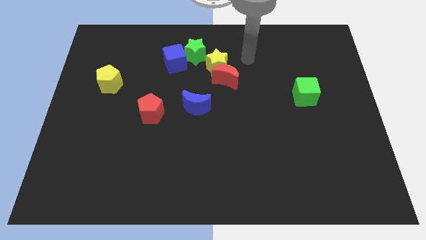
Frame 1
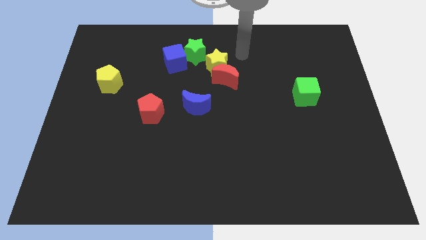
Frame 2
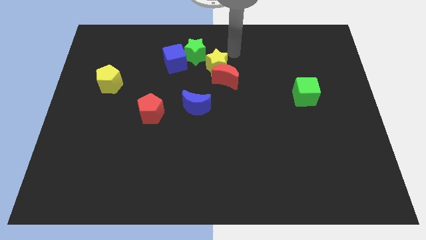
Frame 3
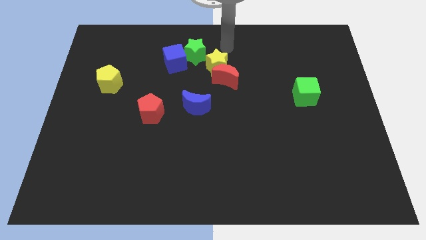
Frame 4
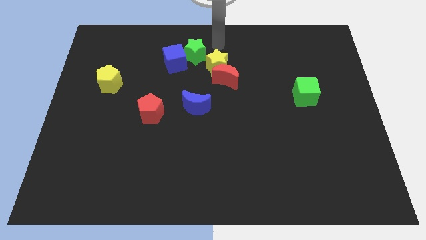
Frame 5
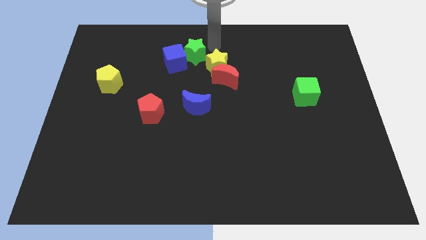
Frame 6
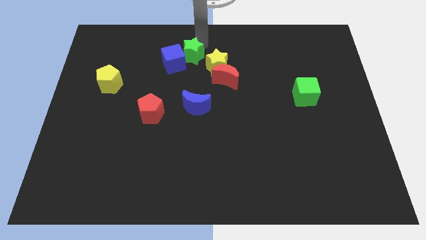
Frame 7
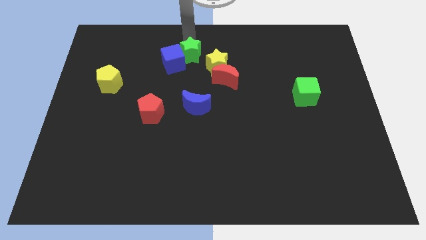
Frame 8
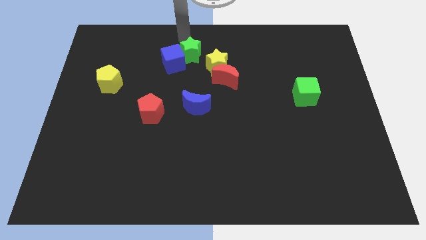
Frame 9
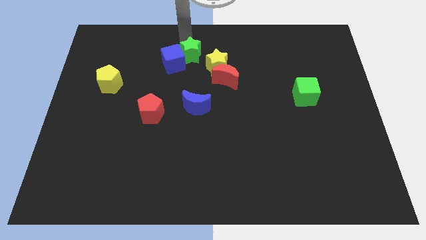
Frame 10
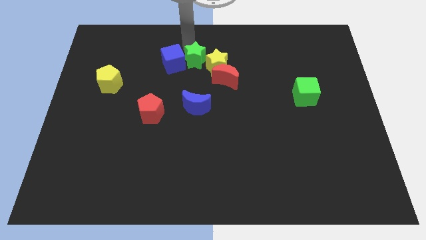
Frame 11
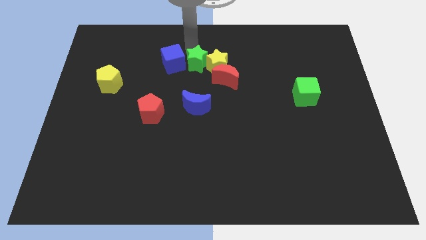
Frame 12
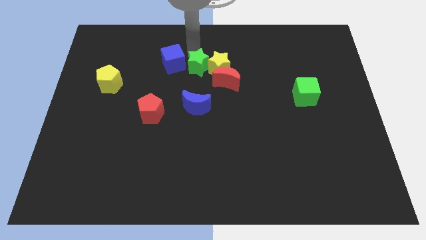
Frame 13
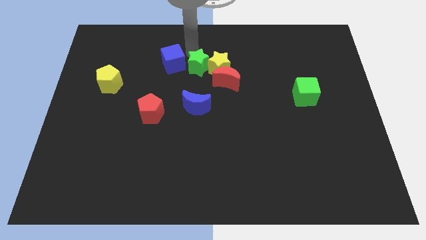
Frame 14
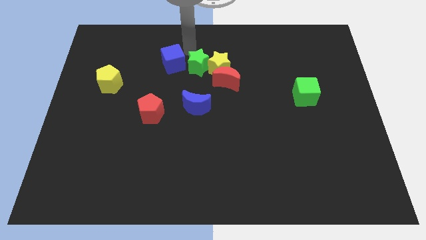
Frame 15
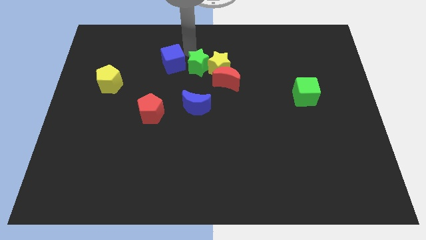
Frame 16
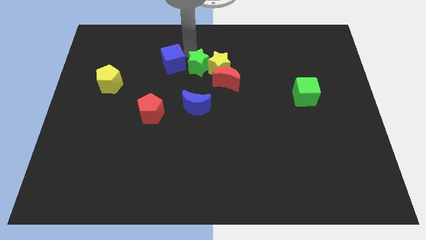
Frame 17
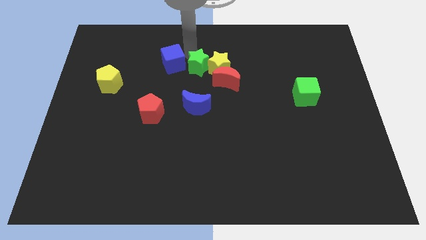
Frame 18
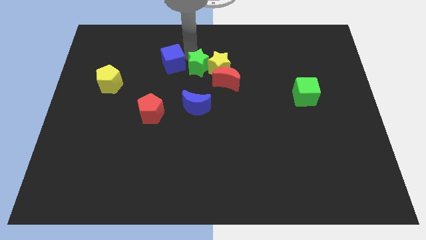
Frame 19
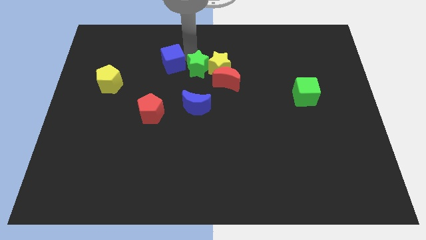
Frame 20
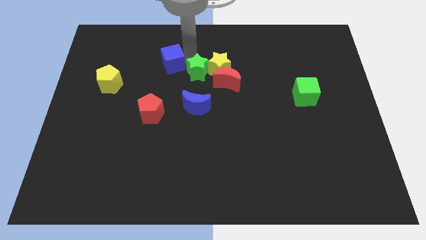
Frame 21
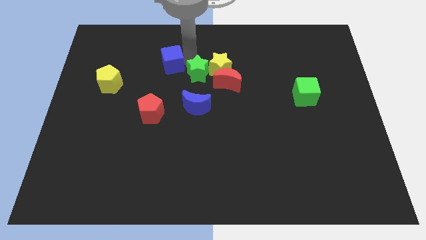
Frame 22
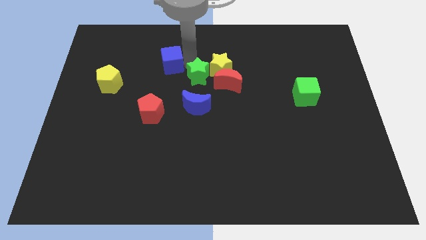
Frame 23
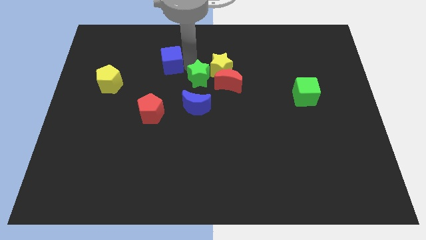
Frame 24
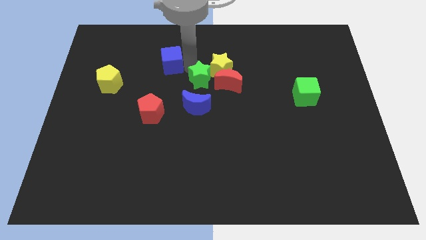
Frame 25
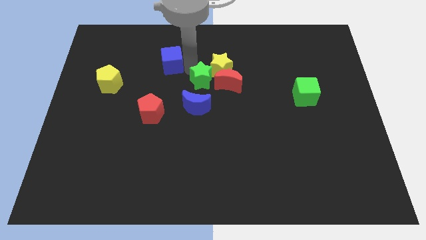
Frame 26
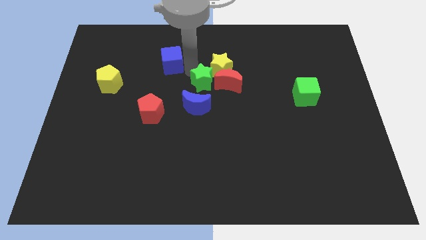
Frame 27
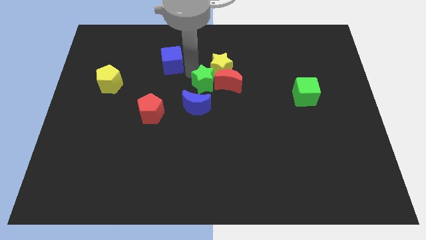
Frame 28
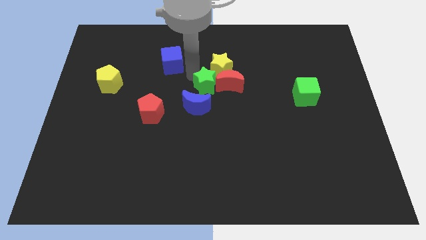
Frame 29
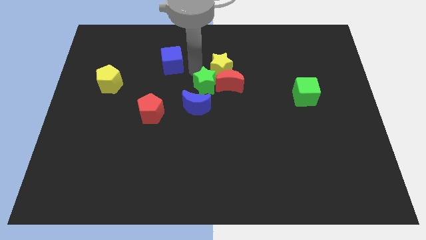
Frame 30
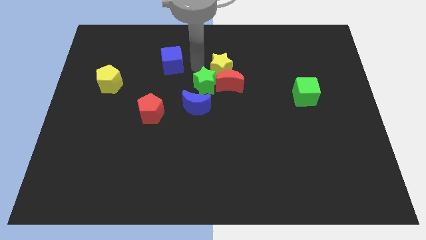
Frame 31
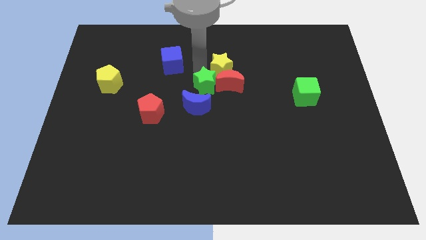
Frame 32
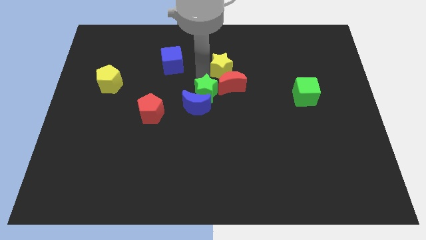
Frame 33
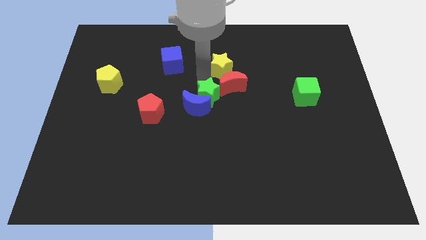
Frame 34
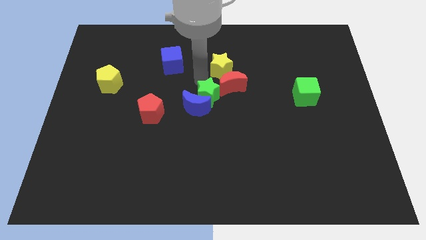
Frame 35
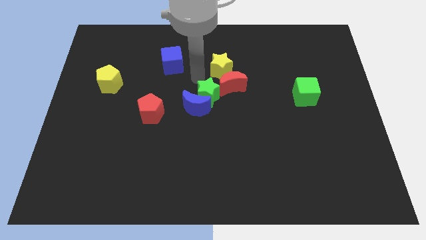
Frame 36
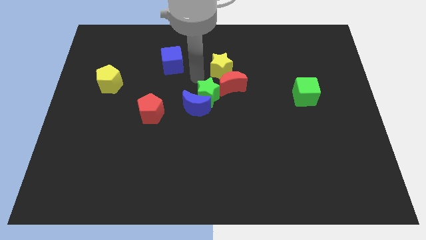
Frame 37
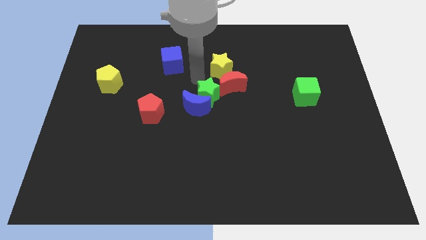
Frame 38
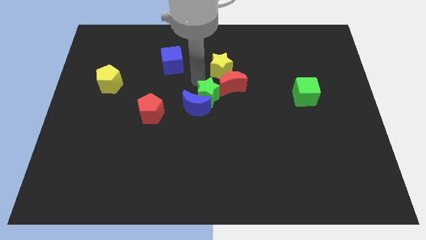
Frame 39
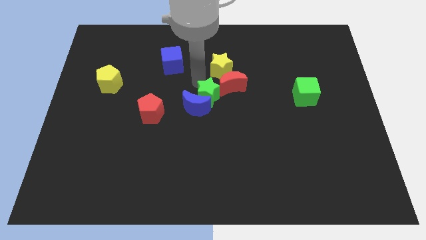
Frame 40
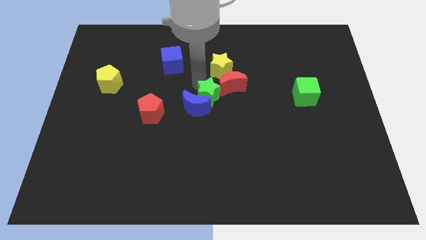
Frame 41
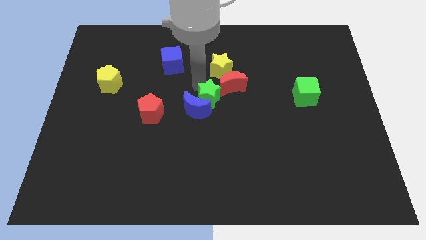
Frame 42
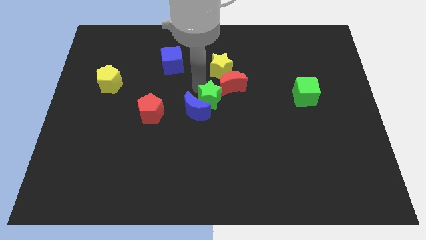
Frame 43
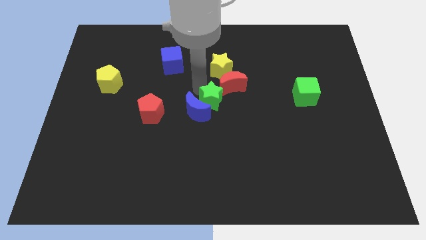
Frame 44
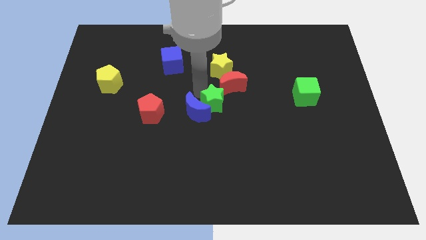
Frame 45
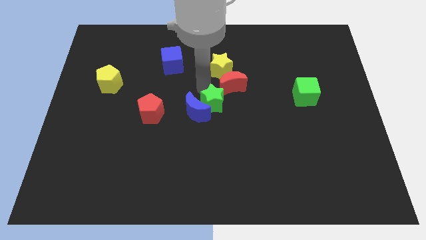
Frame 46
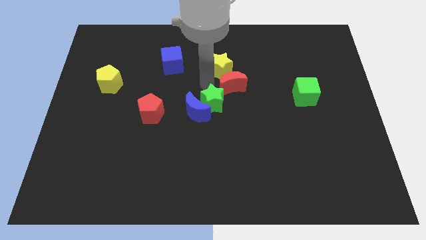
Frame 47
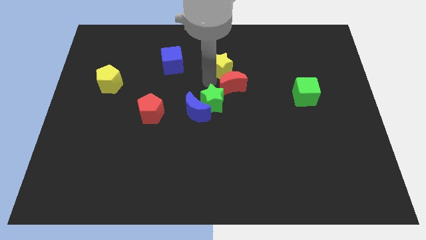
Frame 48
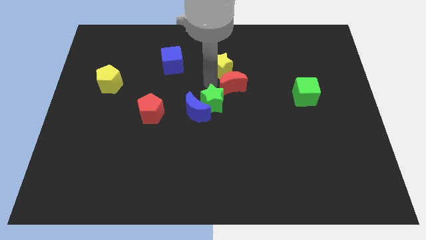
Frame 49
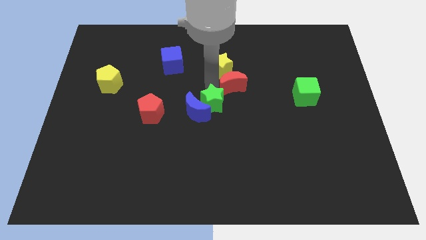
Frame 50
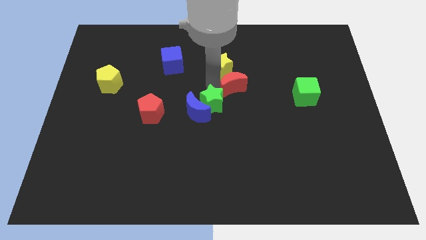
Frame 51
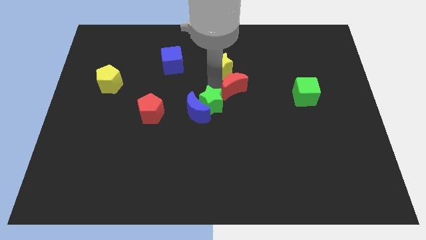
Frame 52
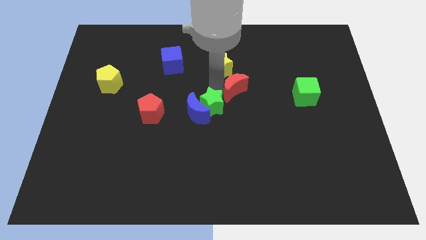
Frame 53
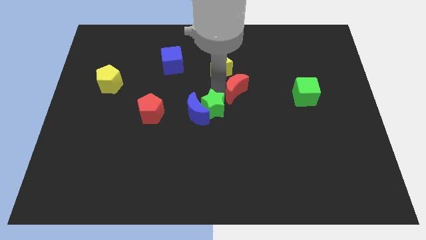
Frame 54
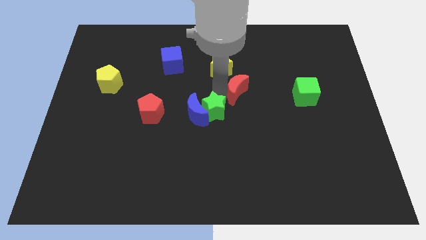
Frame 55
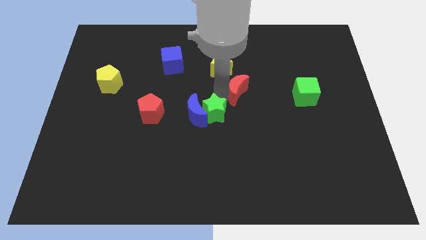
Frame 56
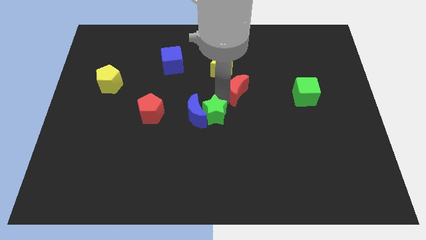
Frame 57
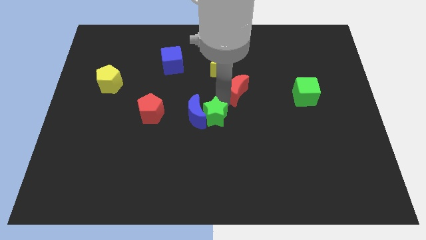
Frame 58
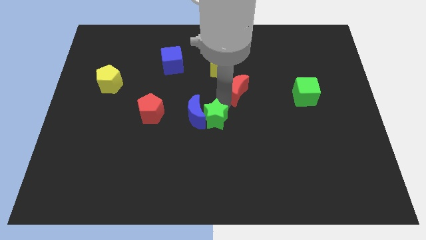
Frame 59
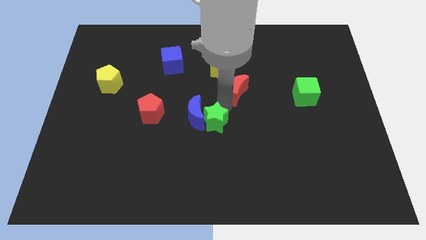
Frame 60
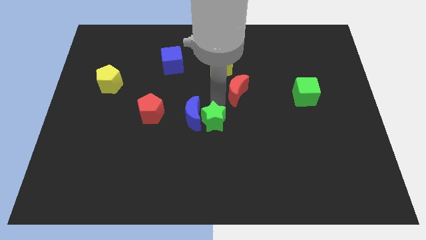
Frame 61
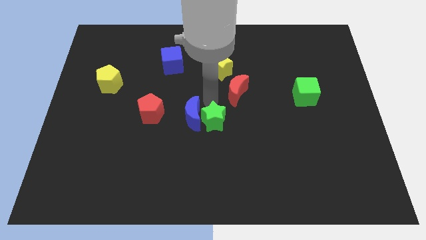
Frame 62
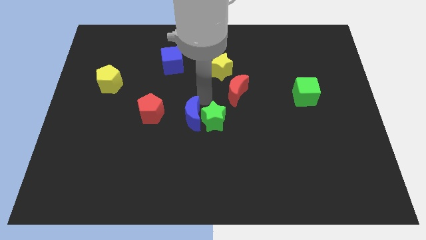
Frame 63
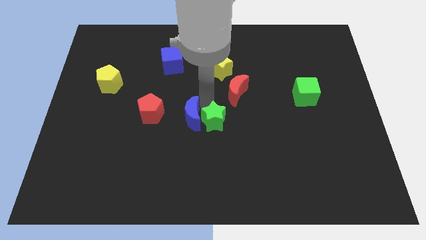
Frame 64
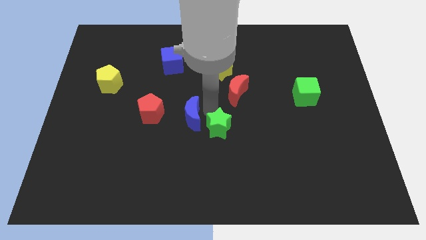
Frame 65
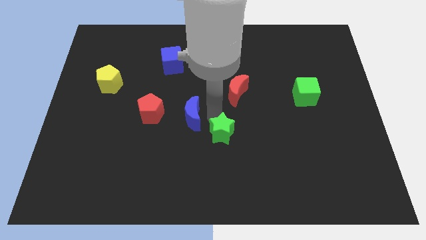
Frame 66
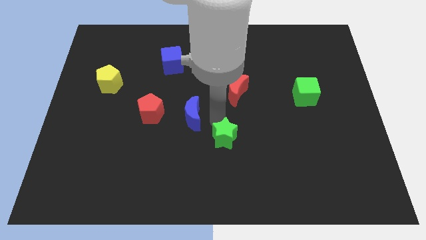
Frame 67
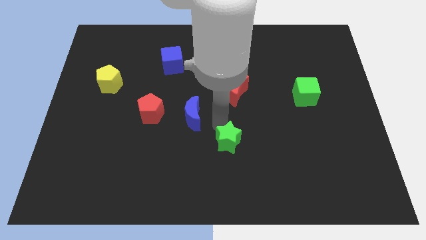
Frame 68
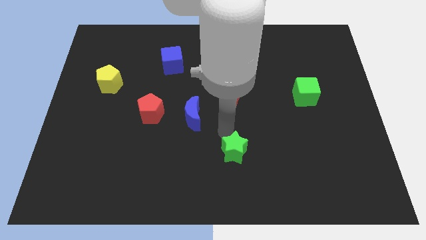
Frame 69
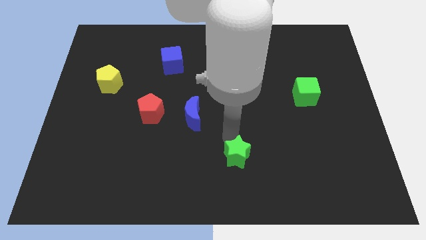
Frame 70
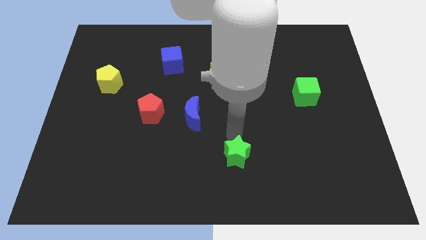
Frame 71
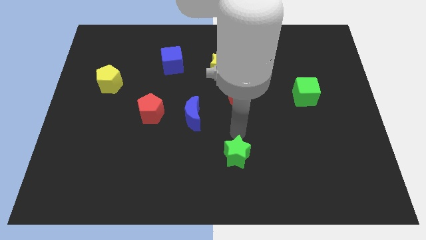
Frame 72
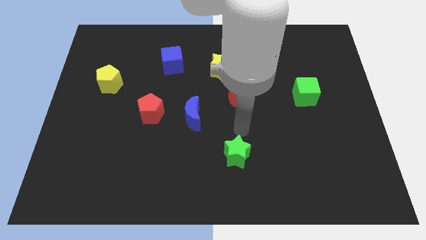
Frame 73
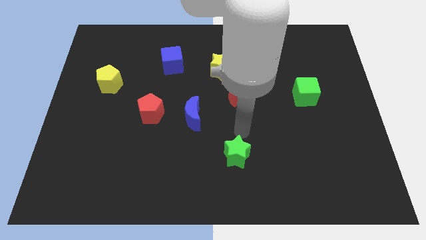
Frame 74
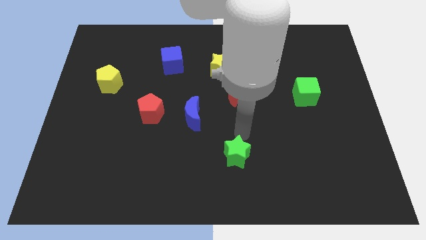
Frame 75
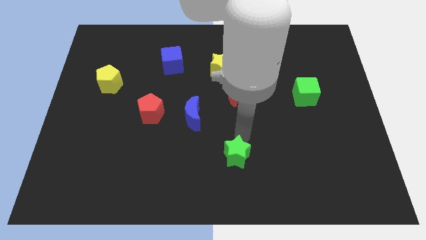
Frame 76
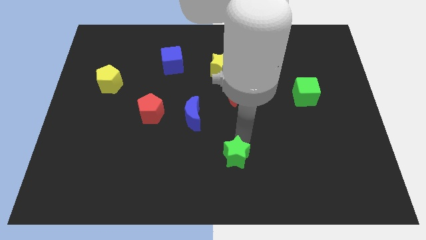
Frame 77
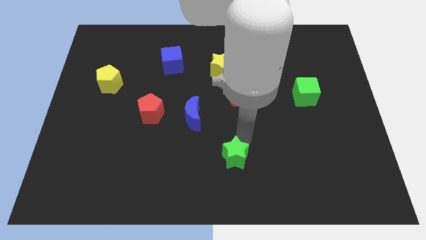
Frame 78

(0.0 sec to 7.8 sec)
push the green star to the bottom

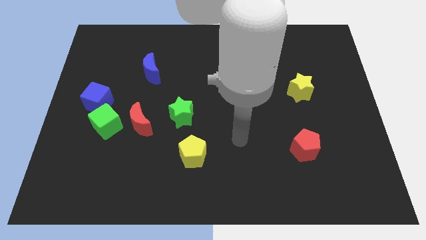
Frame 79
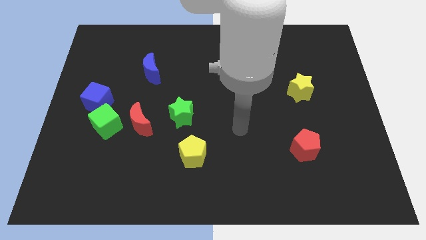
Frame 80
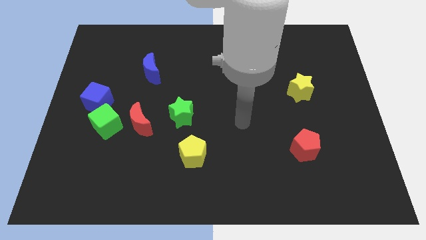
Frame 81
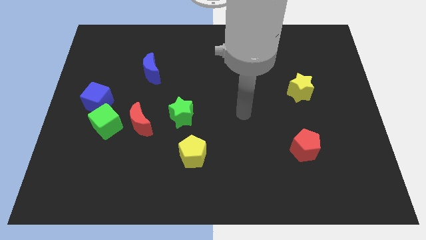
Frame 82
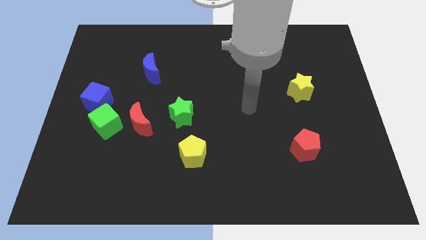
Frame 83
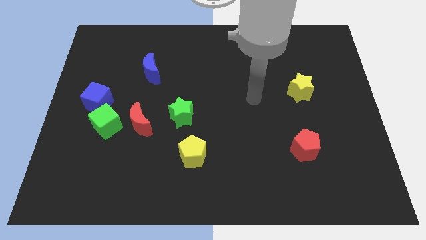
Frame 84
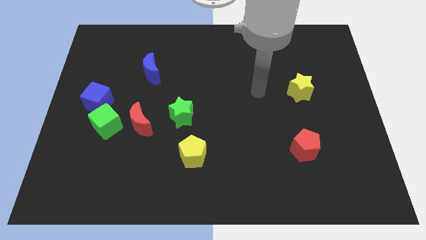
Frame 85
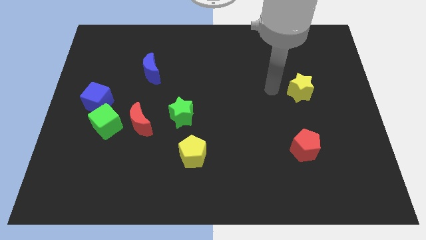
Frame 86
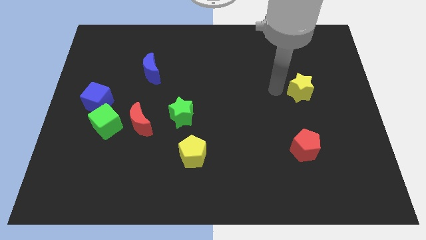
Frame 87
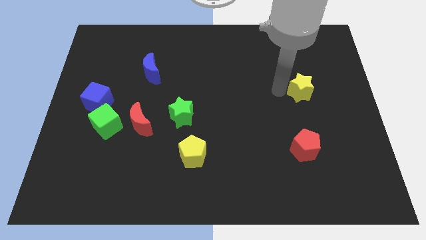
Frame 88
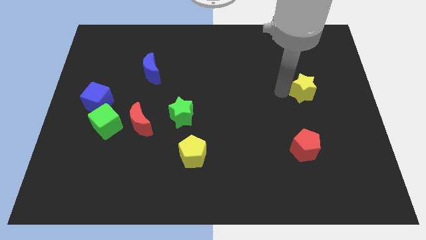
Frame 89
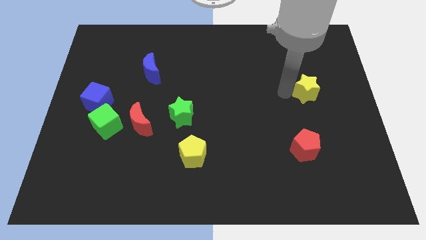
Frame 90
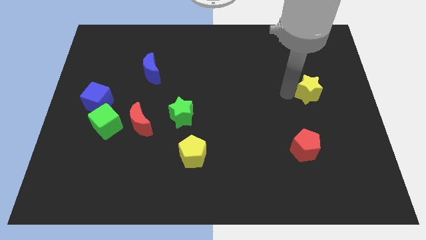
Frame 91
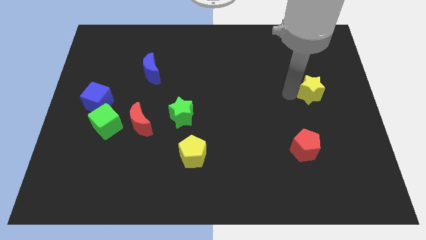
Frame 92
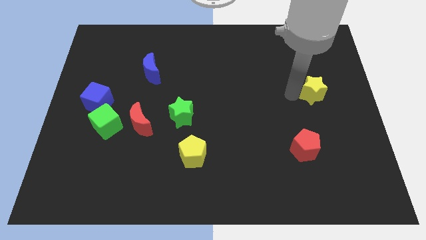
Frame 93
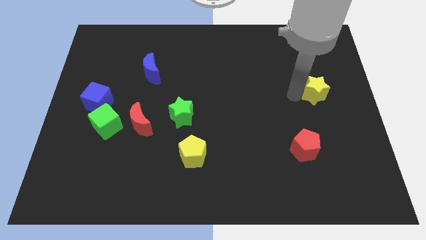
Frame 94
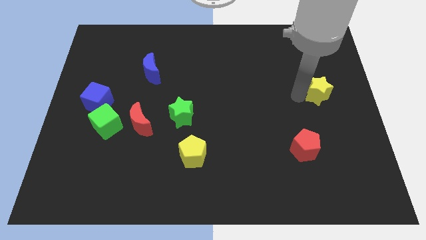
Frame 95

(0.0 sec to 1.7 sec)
move the yellow star to the right side of the board
